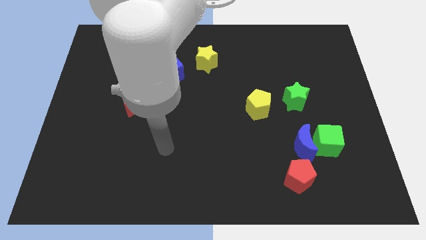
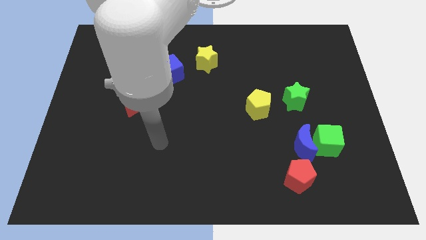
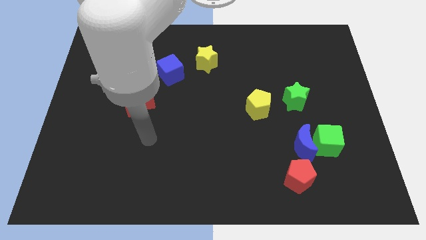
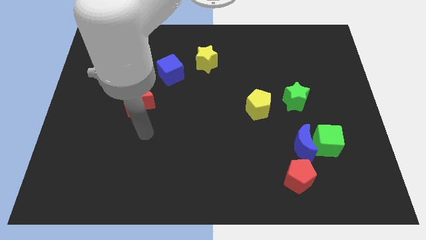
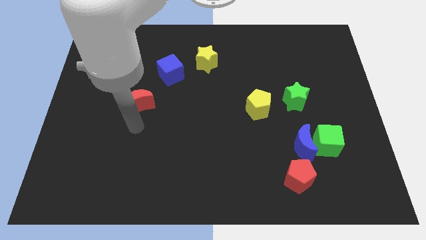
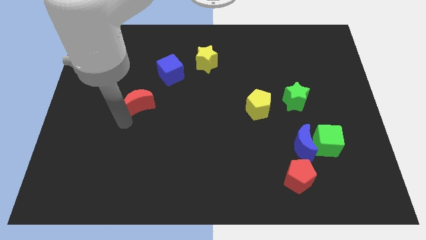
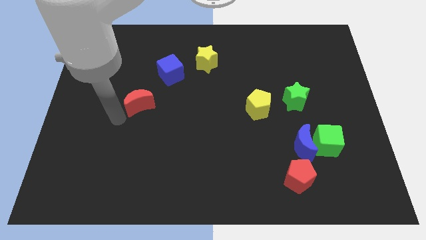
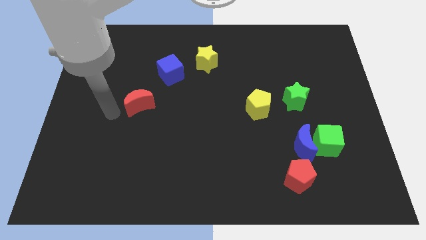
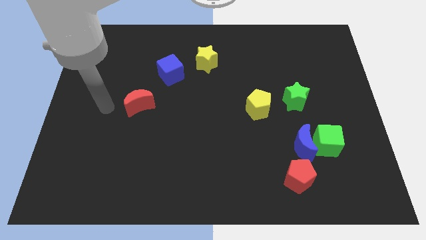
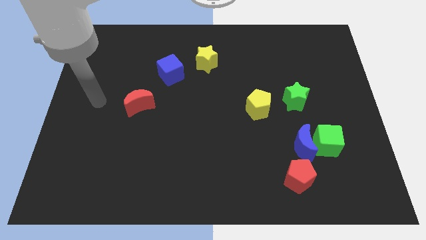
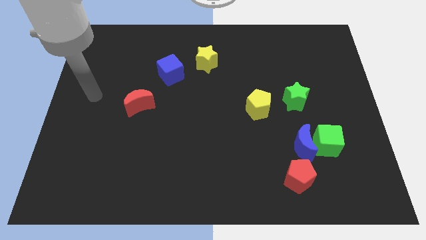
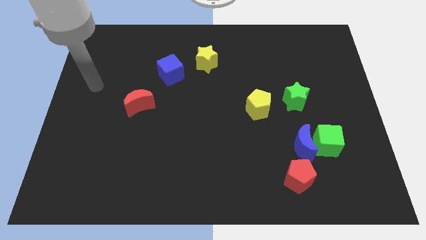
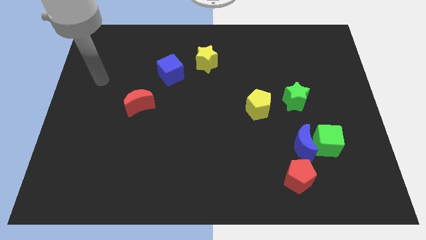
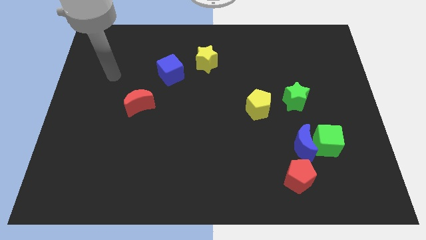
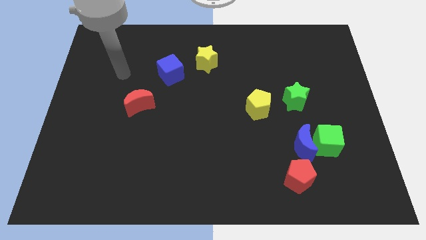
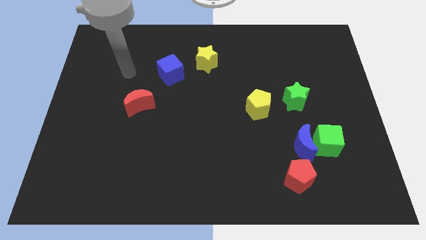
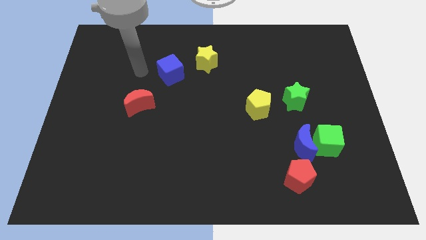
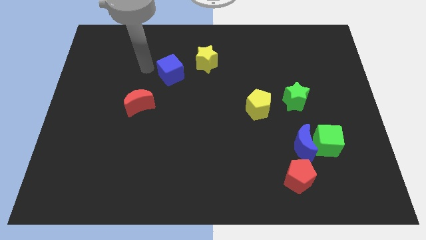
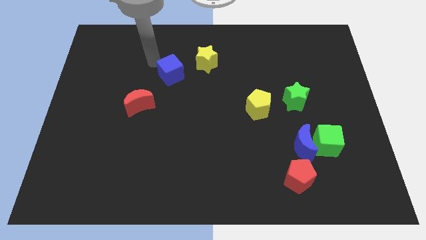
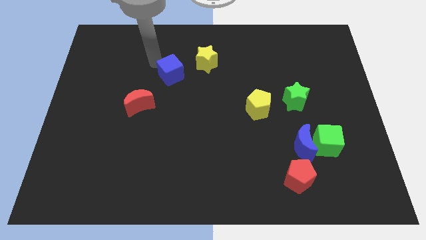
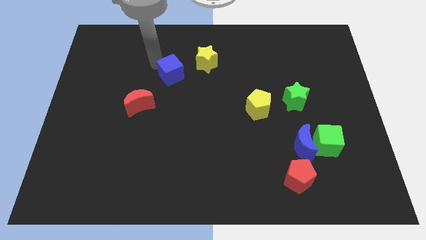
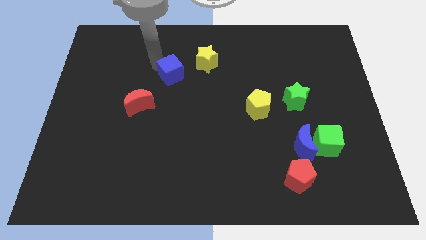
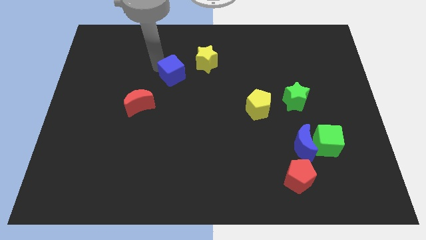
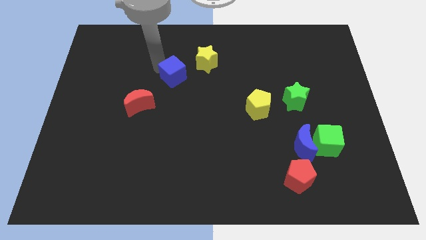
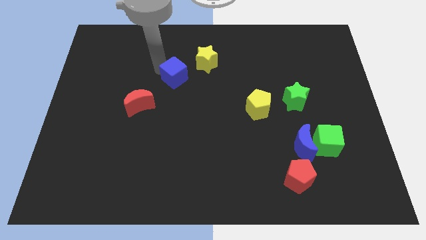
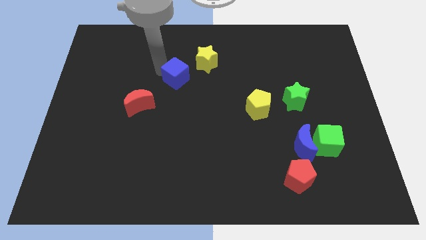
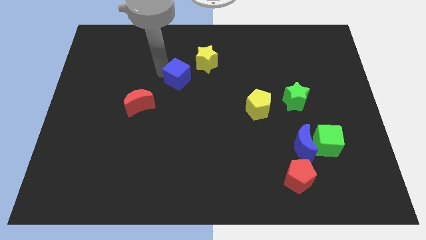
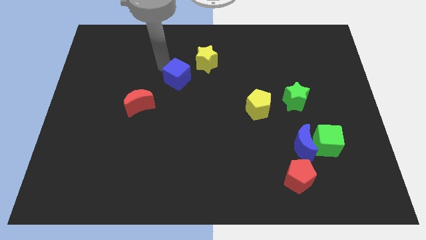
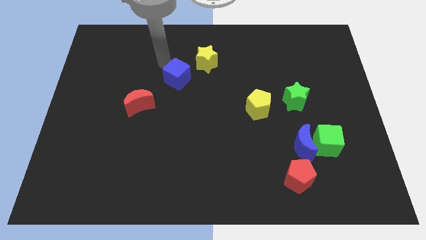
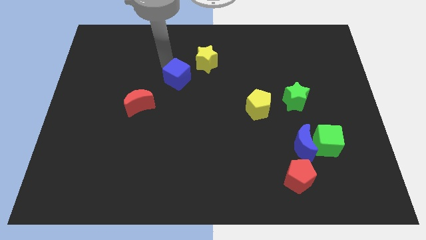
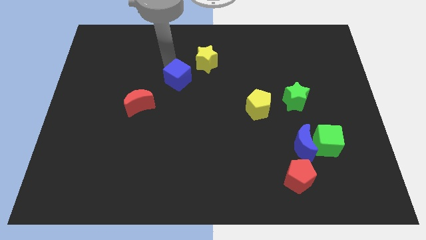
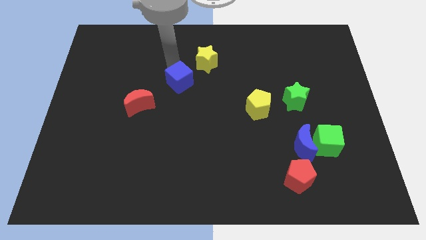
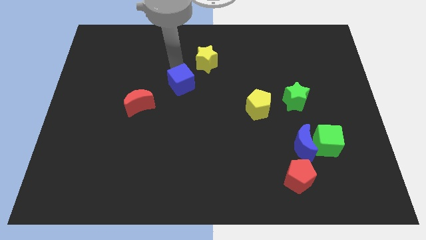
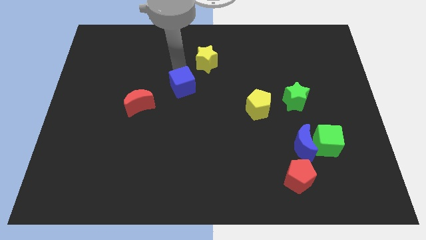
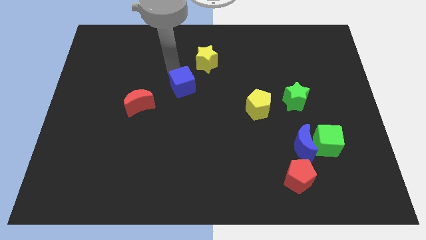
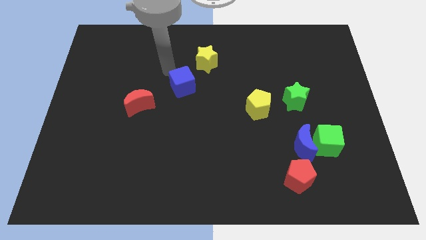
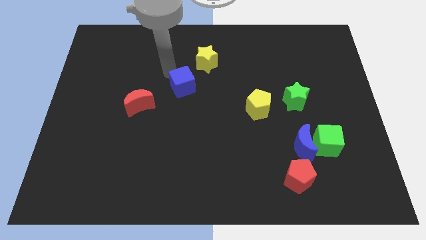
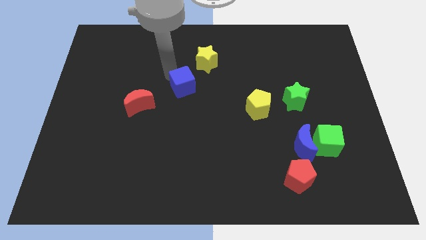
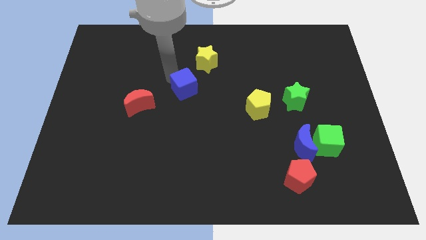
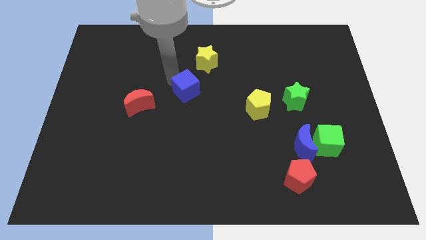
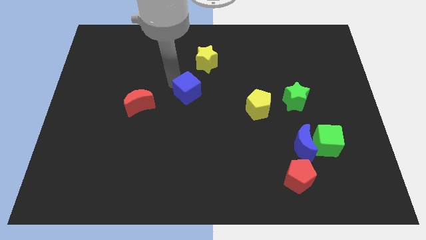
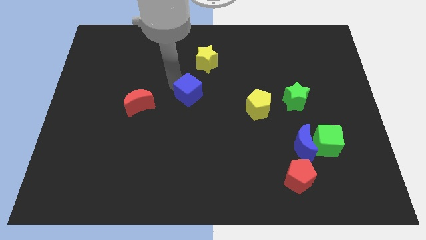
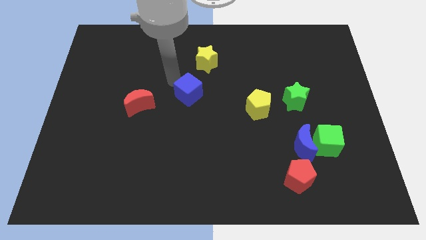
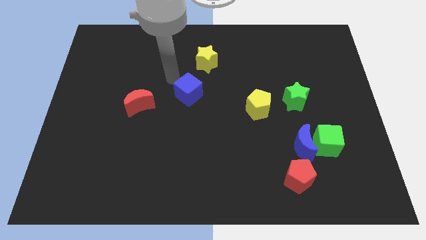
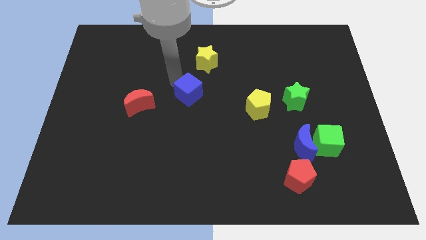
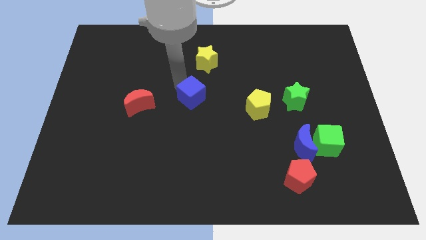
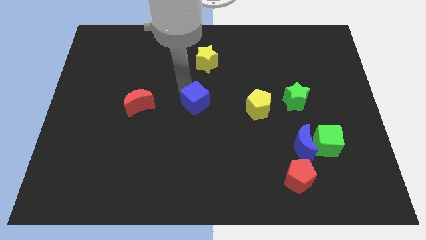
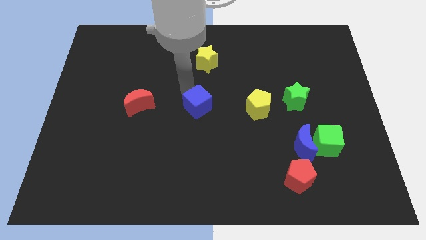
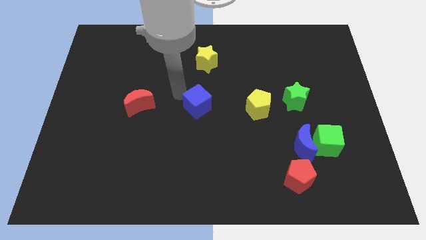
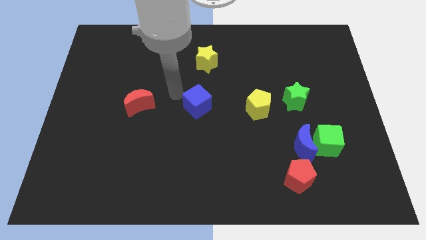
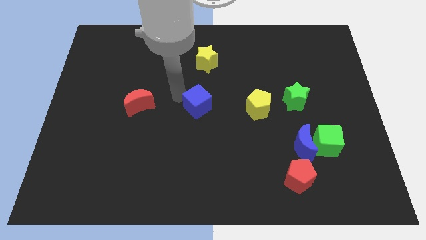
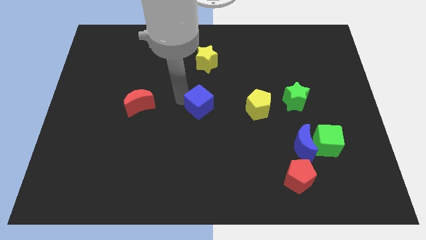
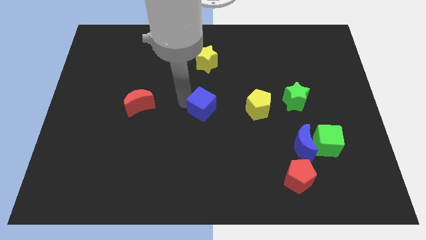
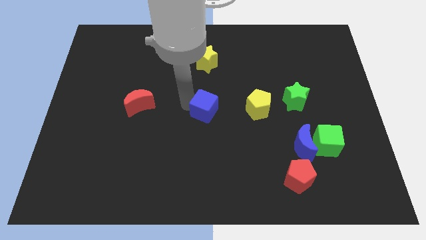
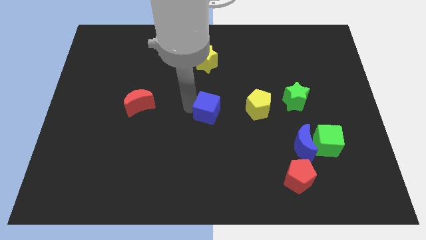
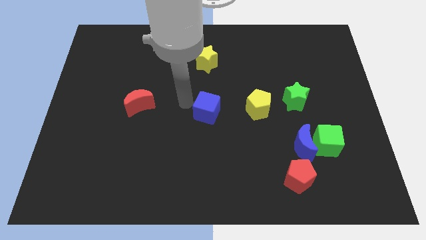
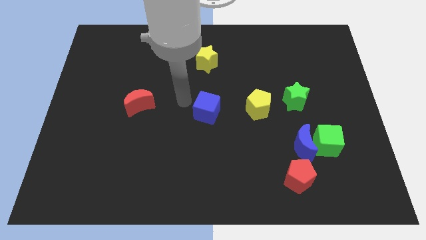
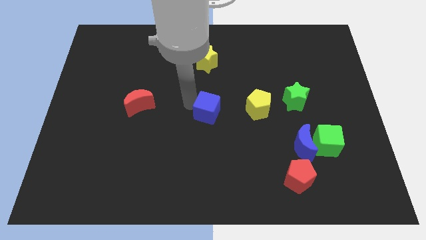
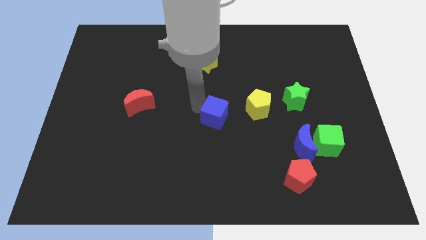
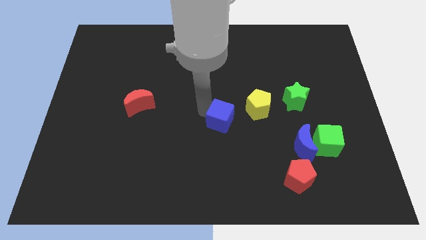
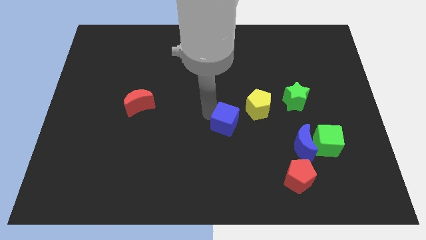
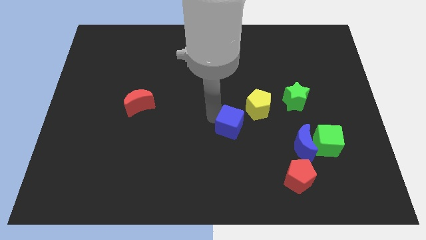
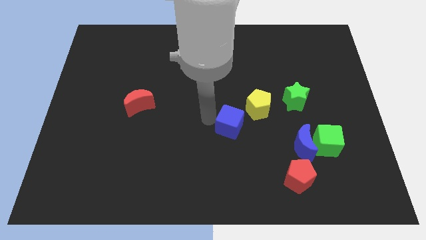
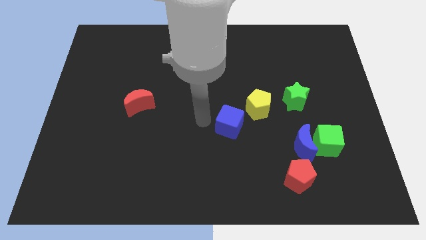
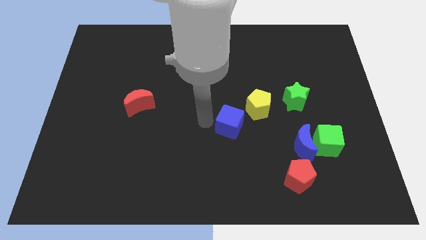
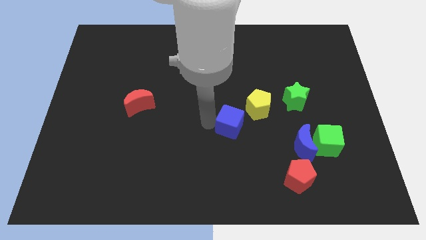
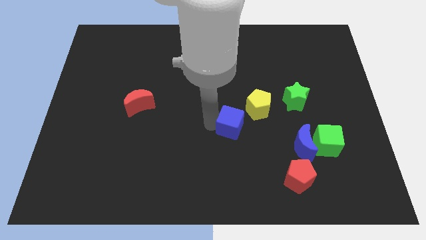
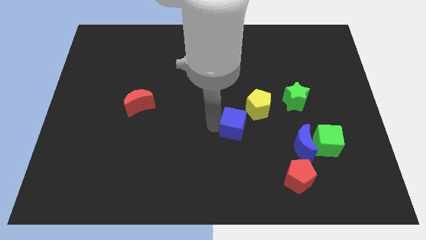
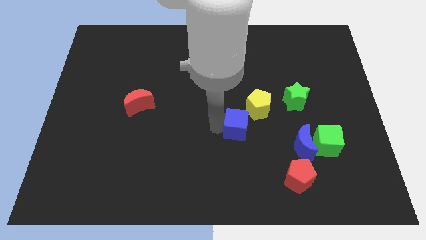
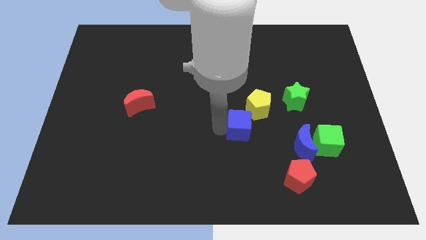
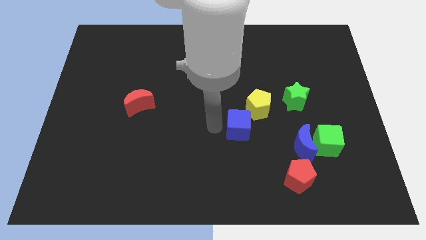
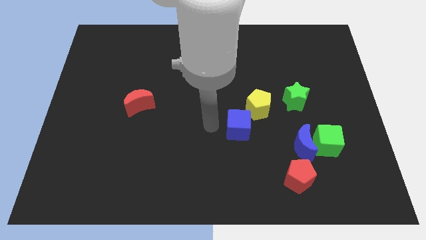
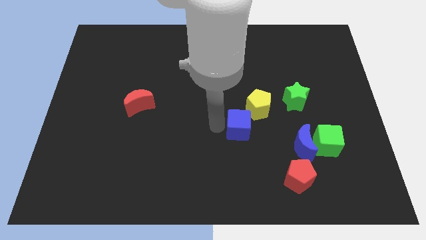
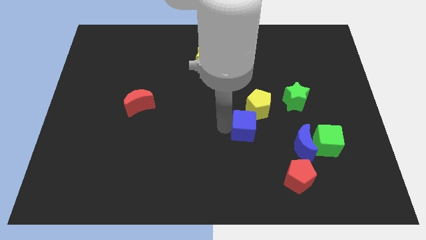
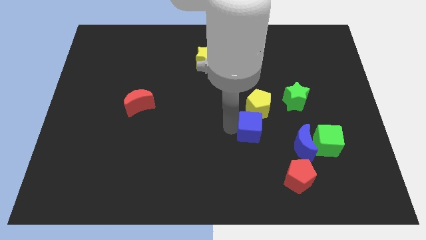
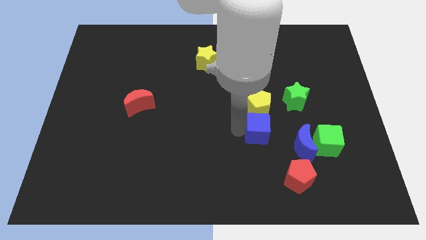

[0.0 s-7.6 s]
move the blue cube to the bottom left of the green star
